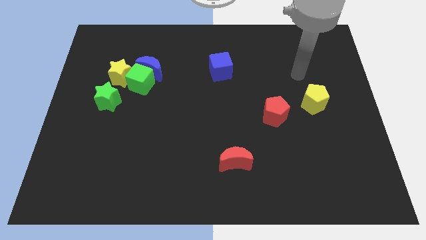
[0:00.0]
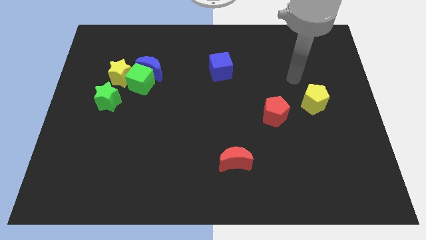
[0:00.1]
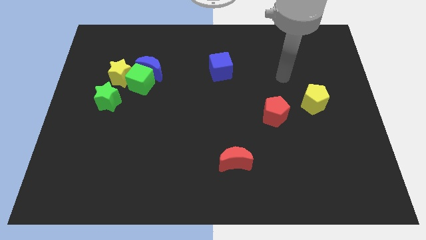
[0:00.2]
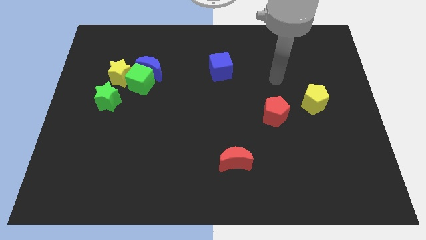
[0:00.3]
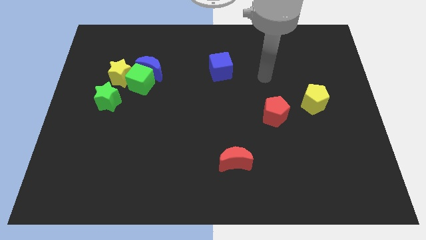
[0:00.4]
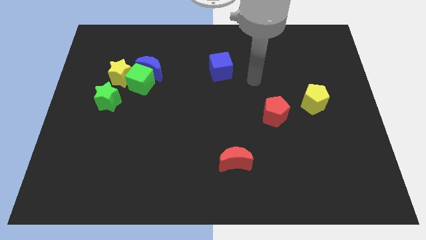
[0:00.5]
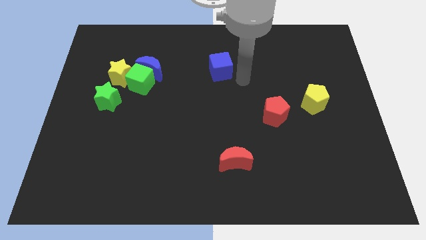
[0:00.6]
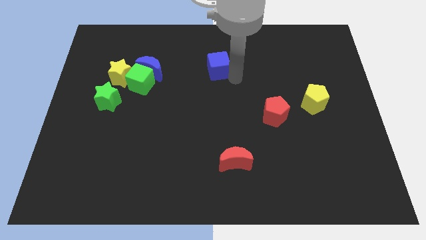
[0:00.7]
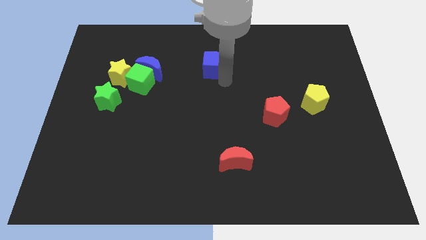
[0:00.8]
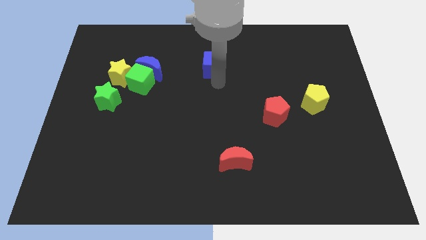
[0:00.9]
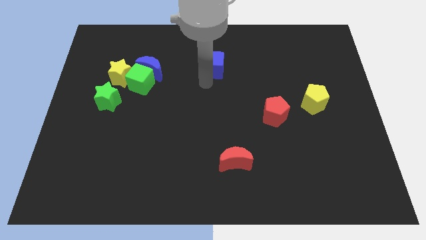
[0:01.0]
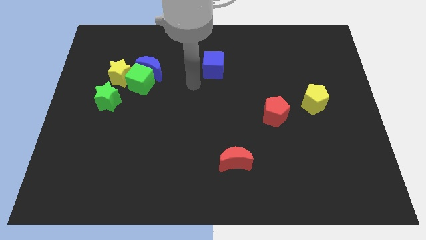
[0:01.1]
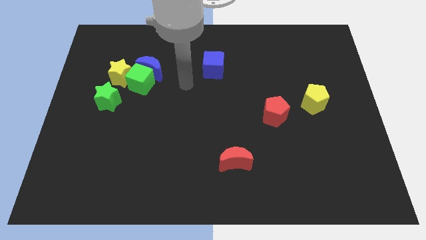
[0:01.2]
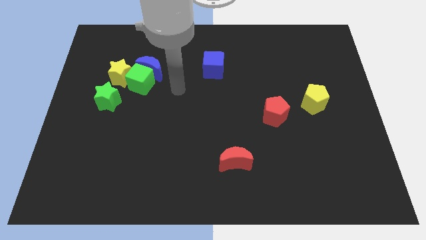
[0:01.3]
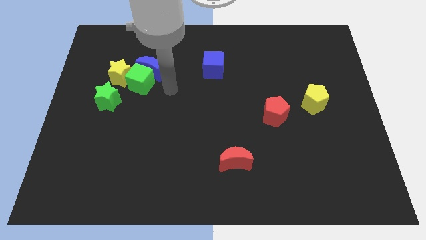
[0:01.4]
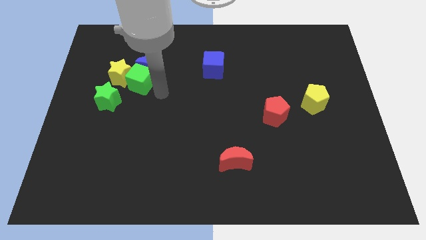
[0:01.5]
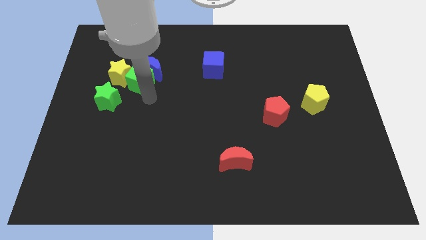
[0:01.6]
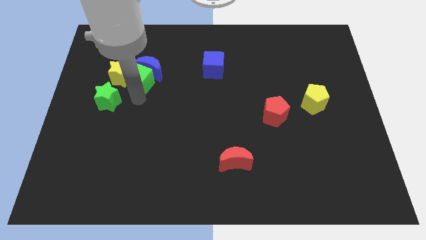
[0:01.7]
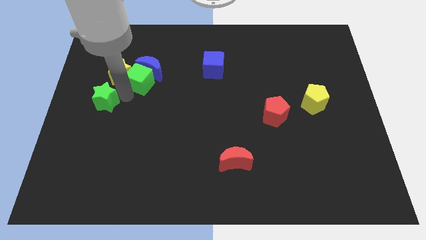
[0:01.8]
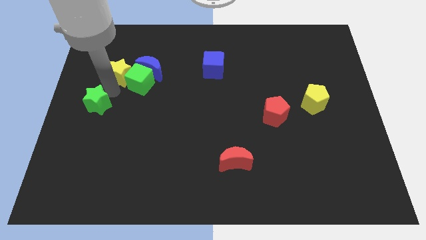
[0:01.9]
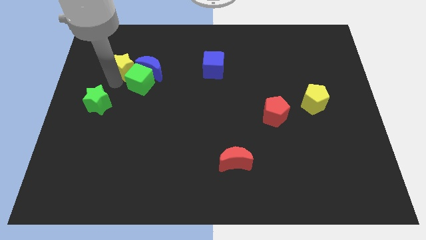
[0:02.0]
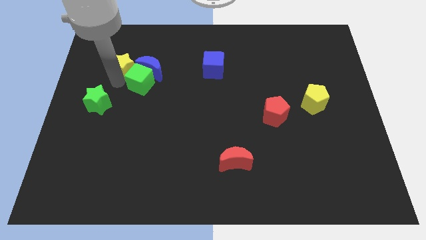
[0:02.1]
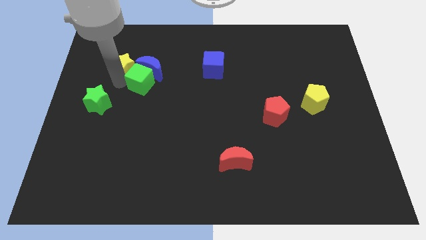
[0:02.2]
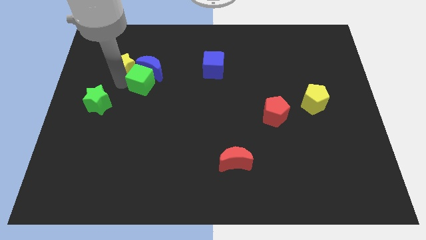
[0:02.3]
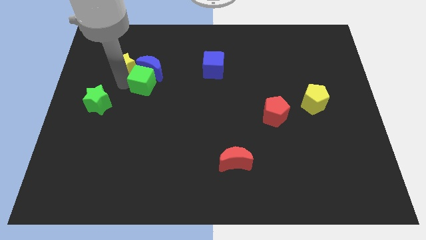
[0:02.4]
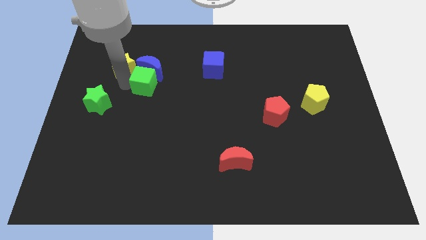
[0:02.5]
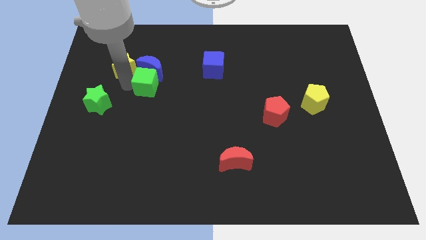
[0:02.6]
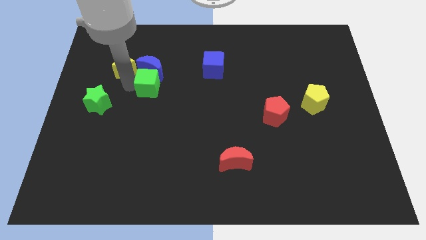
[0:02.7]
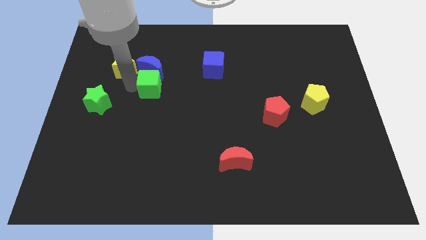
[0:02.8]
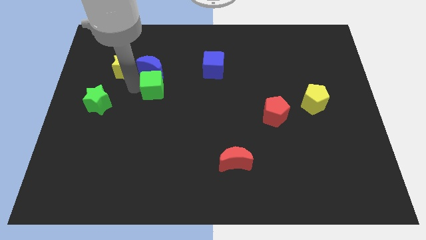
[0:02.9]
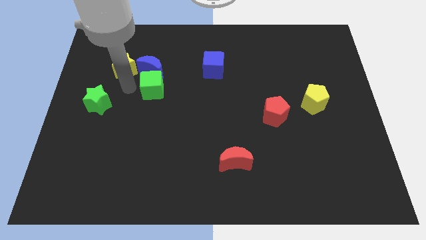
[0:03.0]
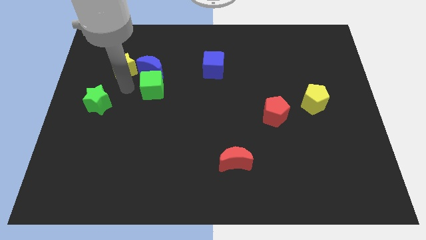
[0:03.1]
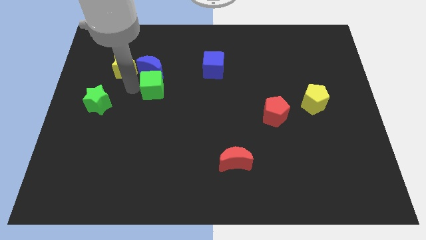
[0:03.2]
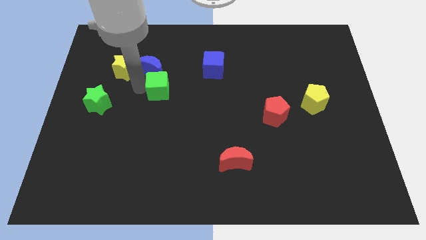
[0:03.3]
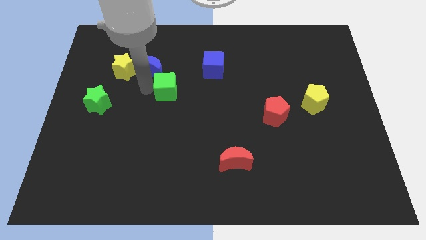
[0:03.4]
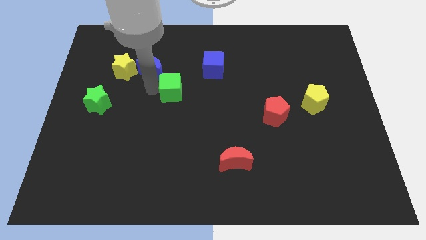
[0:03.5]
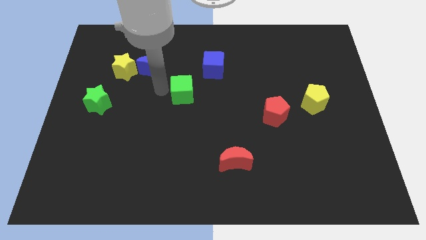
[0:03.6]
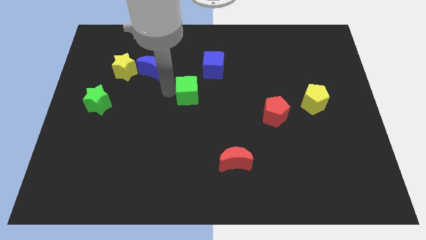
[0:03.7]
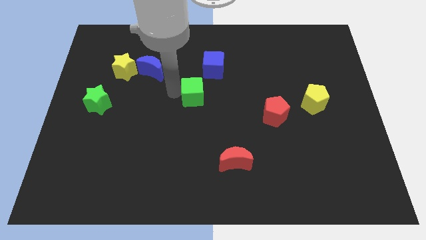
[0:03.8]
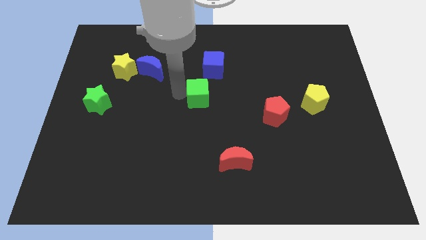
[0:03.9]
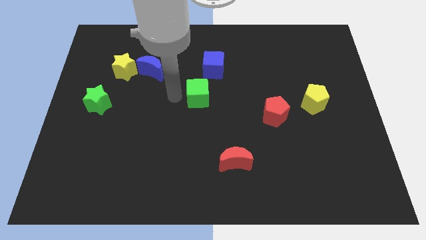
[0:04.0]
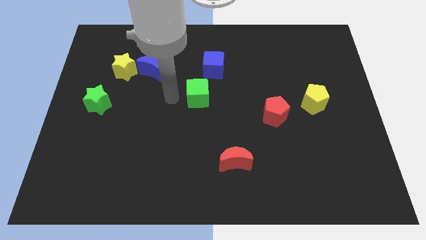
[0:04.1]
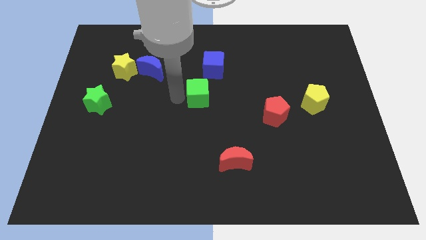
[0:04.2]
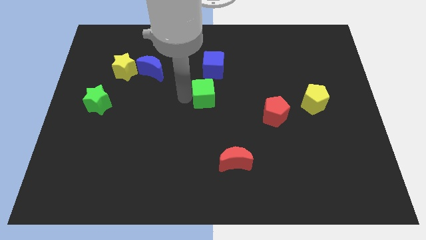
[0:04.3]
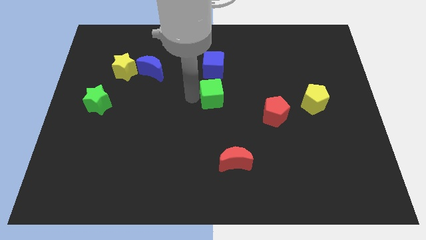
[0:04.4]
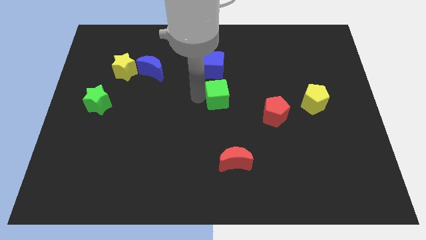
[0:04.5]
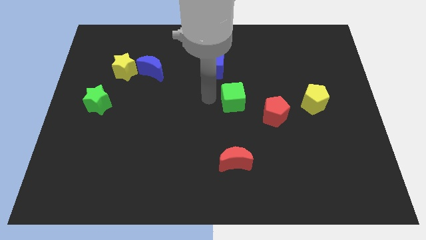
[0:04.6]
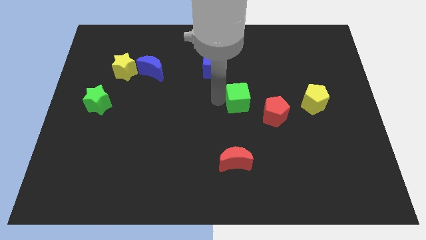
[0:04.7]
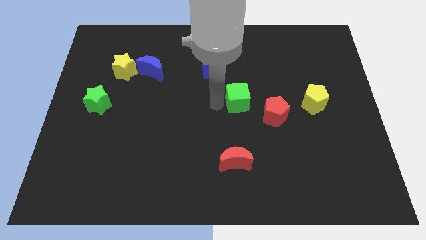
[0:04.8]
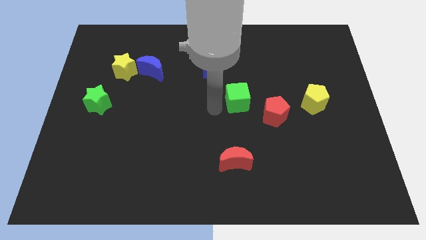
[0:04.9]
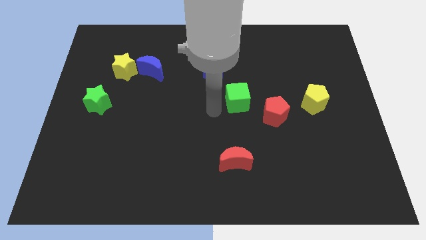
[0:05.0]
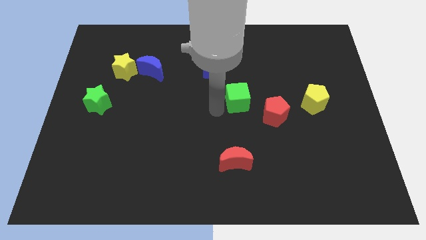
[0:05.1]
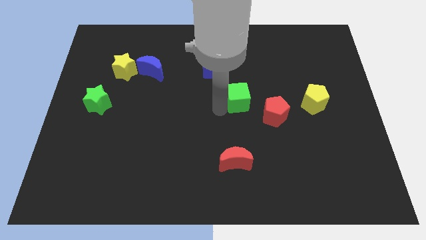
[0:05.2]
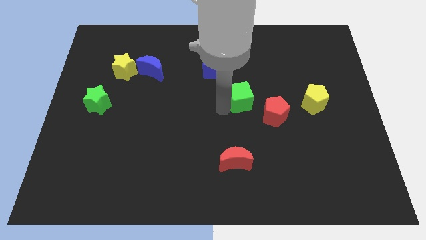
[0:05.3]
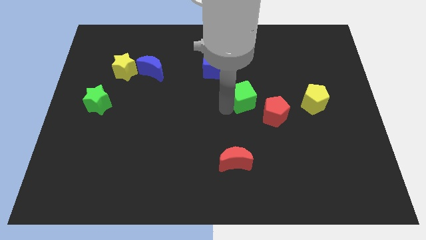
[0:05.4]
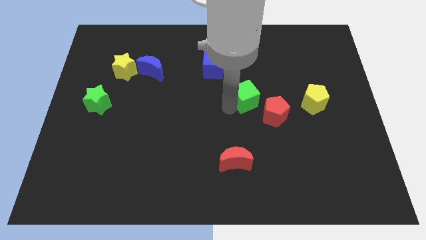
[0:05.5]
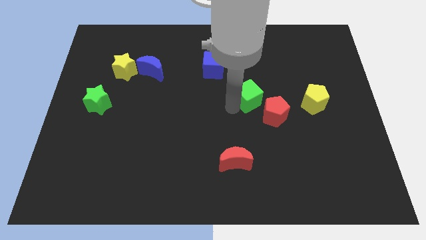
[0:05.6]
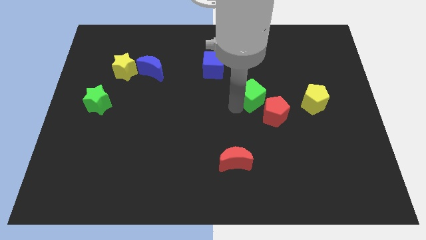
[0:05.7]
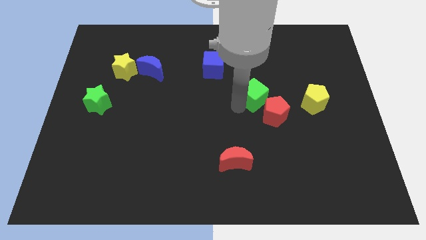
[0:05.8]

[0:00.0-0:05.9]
slide the green cube to the top side of the red pentagon

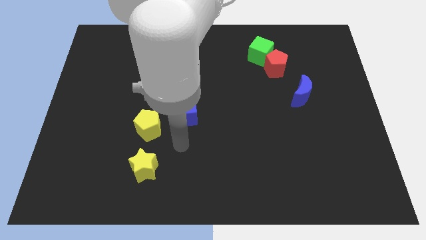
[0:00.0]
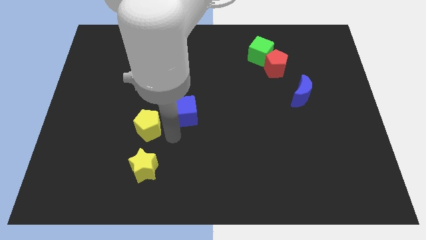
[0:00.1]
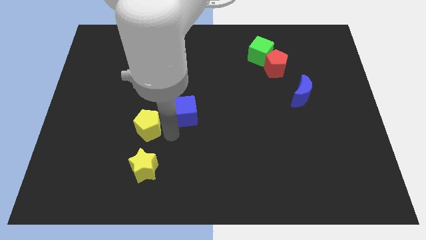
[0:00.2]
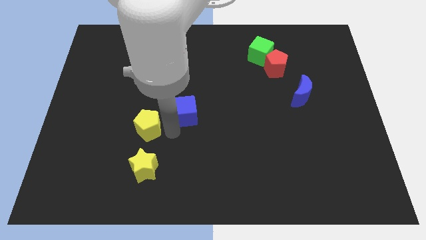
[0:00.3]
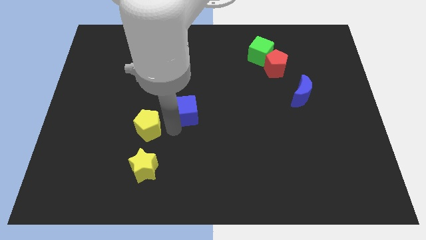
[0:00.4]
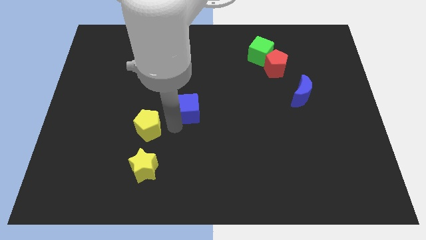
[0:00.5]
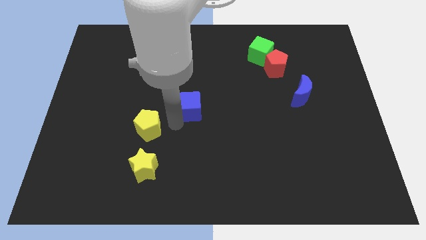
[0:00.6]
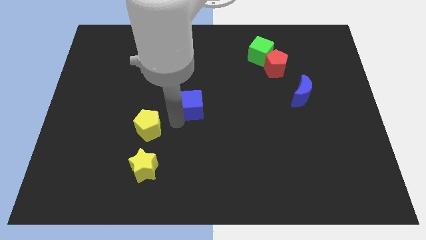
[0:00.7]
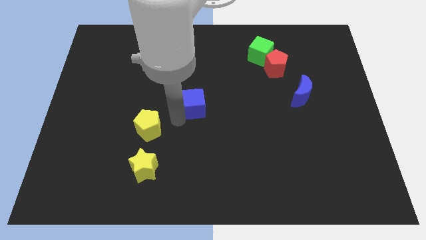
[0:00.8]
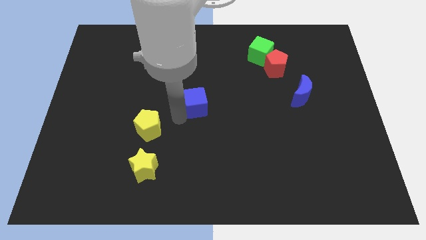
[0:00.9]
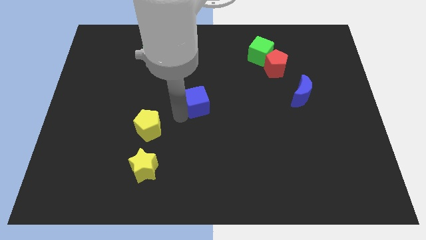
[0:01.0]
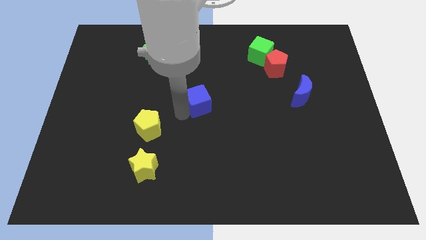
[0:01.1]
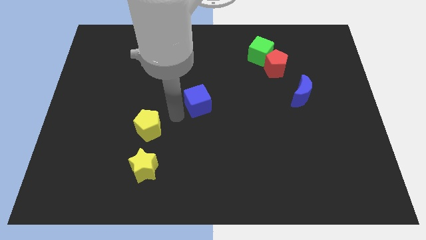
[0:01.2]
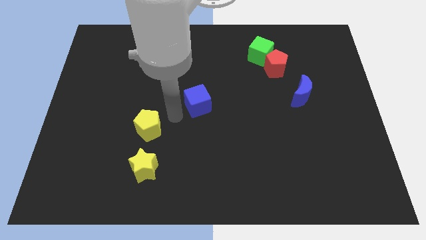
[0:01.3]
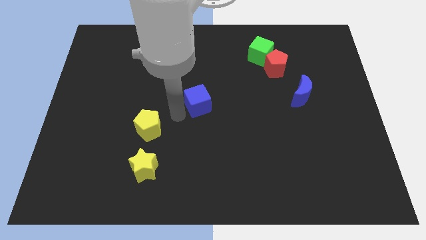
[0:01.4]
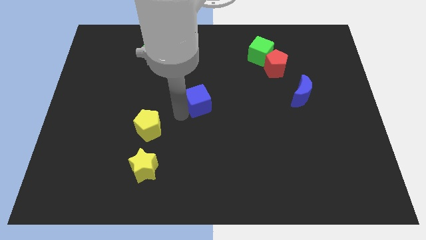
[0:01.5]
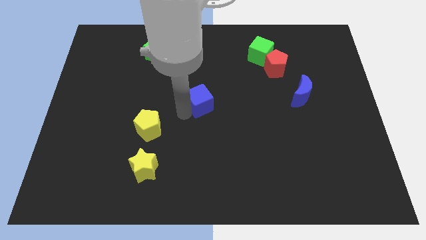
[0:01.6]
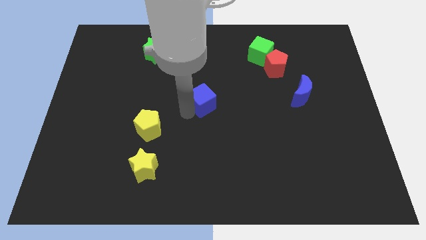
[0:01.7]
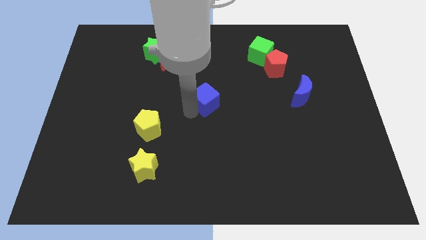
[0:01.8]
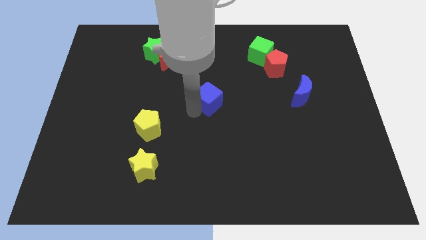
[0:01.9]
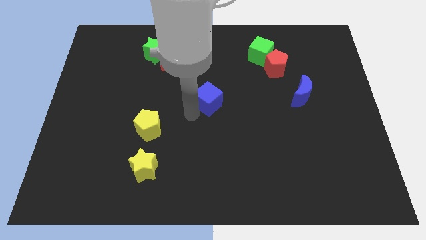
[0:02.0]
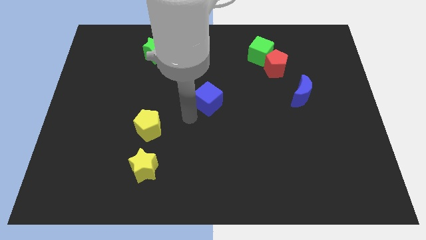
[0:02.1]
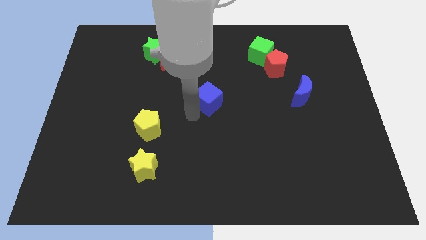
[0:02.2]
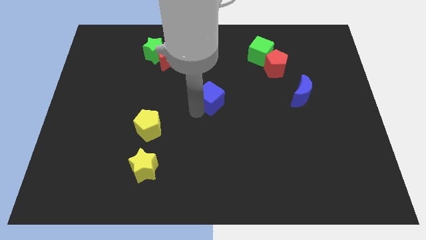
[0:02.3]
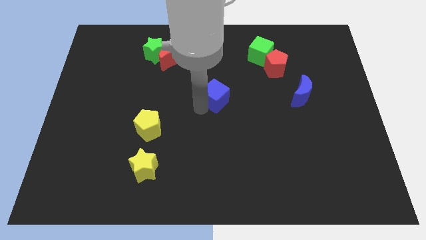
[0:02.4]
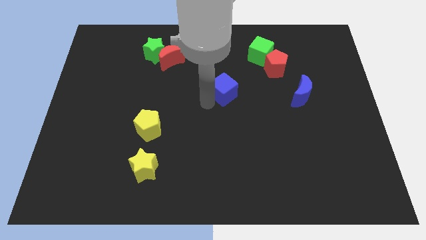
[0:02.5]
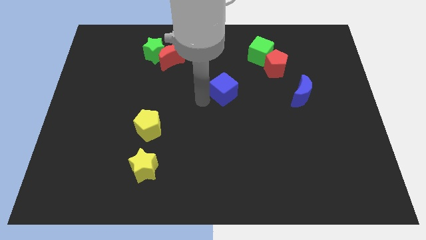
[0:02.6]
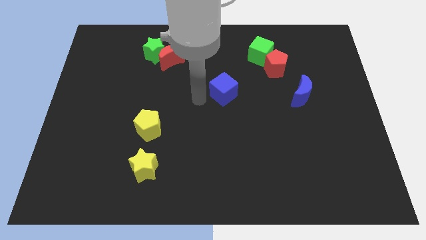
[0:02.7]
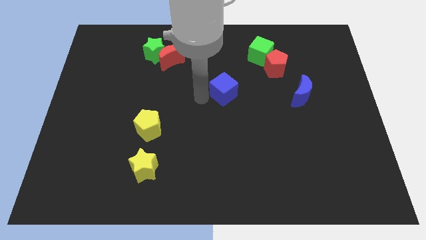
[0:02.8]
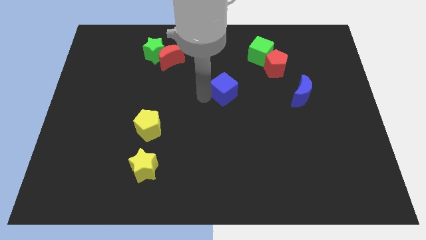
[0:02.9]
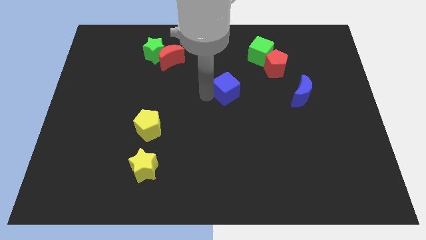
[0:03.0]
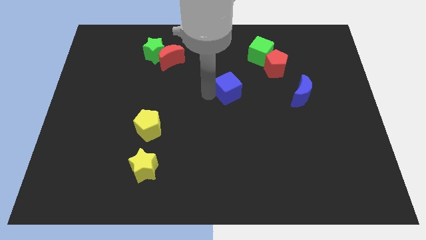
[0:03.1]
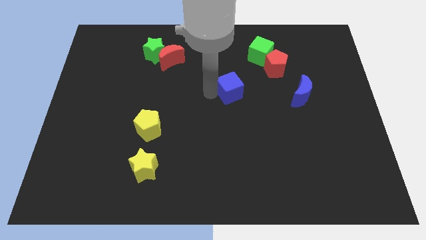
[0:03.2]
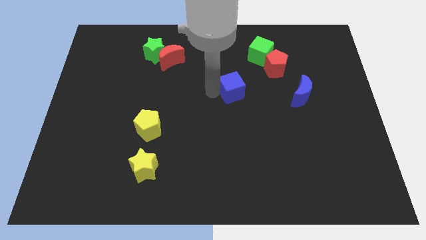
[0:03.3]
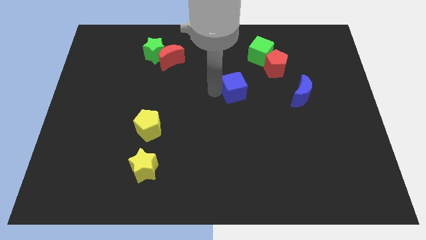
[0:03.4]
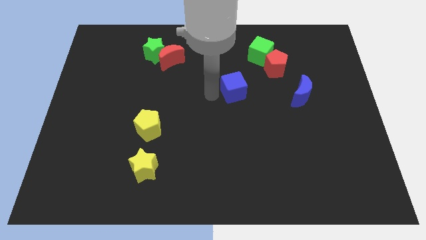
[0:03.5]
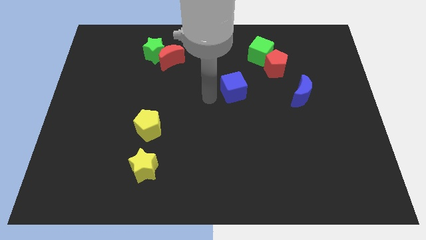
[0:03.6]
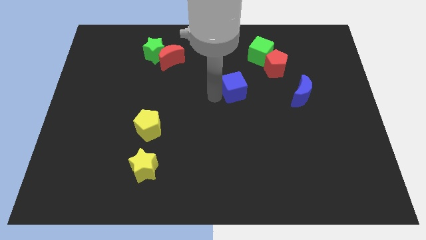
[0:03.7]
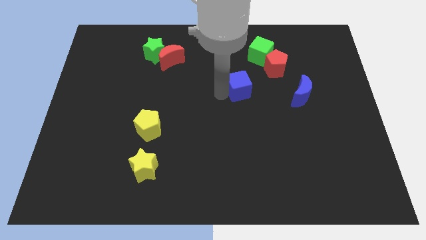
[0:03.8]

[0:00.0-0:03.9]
move the blue cube to the bottom left of the red pentagon
